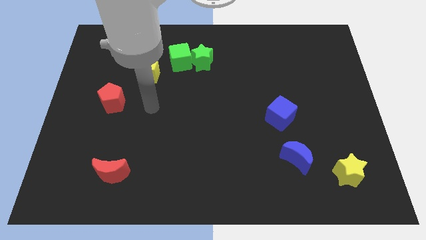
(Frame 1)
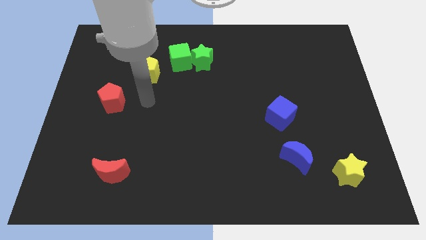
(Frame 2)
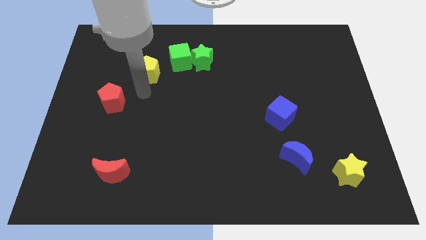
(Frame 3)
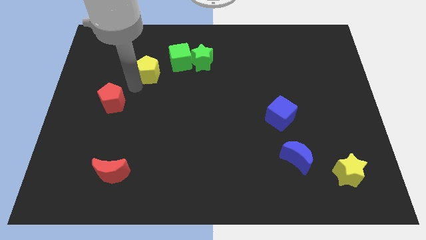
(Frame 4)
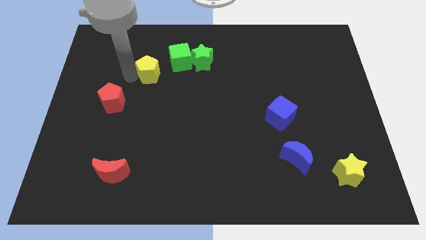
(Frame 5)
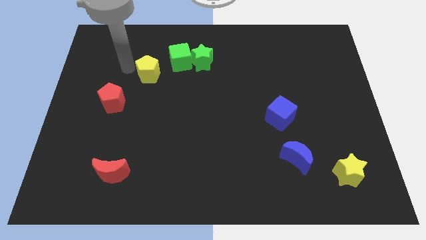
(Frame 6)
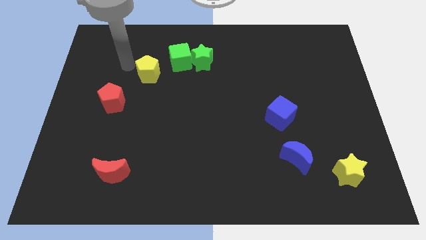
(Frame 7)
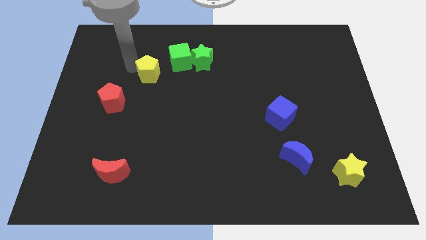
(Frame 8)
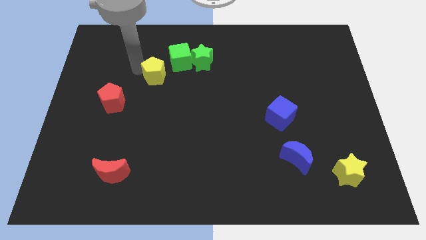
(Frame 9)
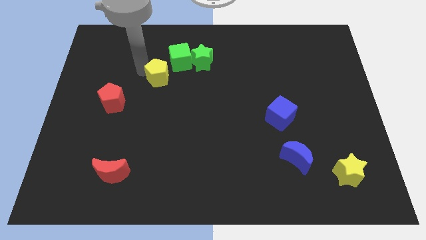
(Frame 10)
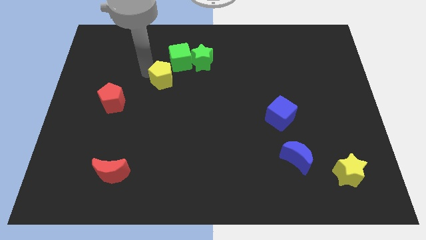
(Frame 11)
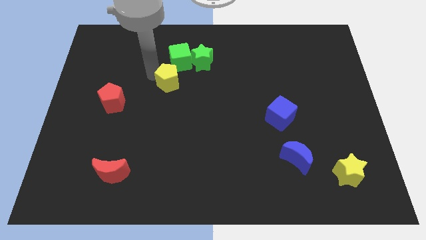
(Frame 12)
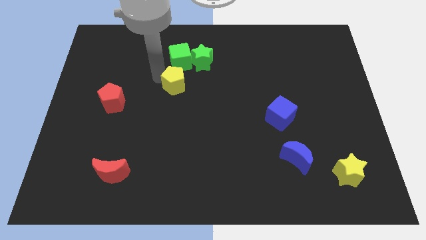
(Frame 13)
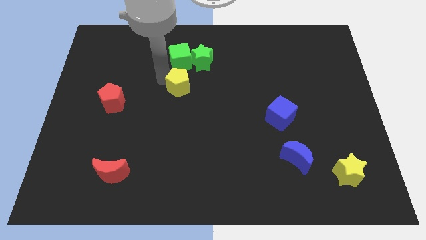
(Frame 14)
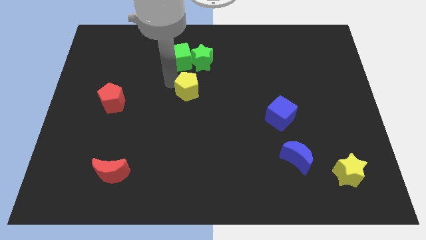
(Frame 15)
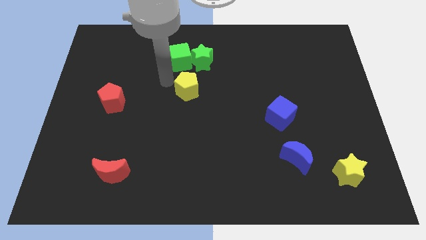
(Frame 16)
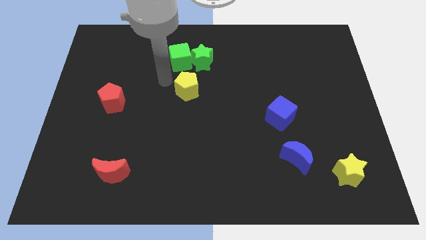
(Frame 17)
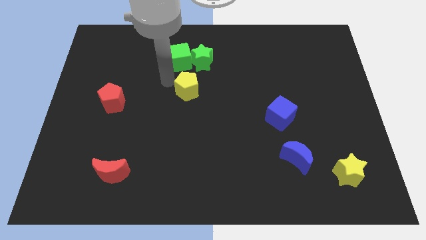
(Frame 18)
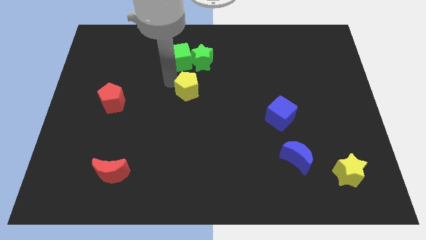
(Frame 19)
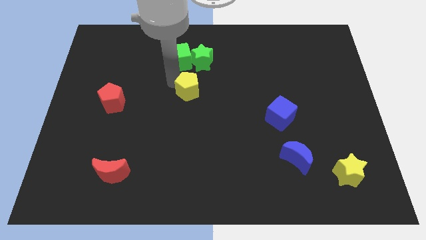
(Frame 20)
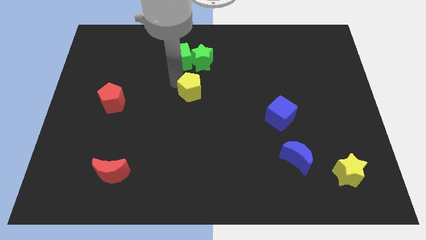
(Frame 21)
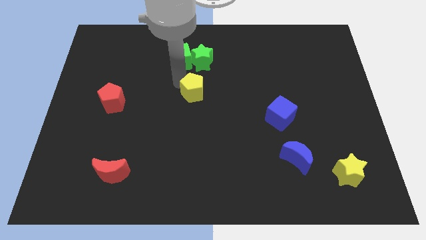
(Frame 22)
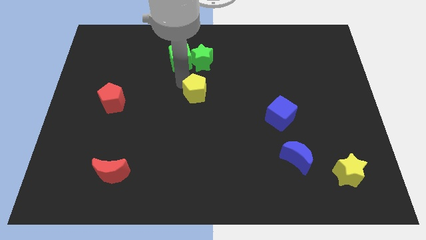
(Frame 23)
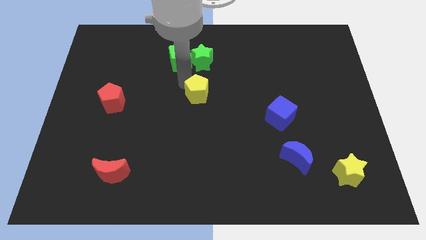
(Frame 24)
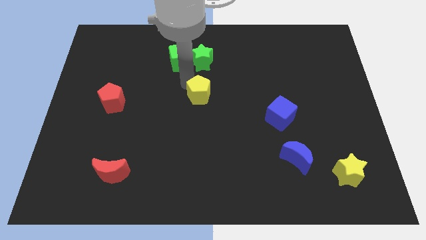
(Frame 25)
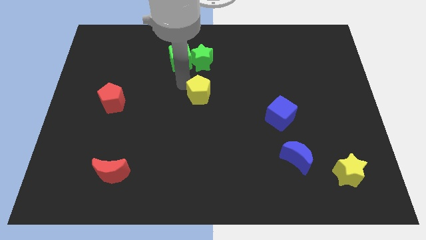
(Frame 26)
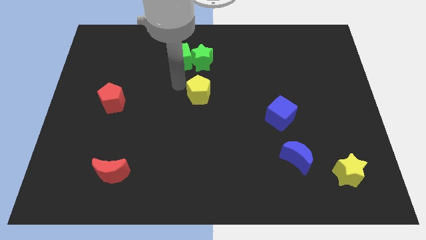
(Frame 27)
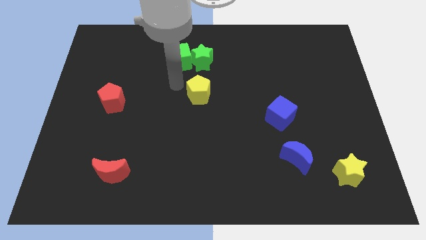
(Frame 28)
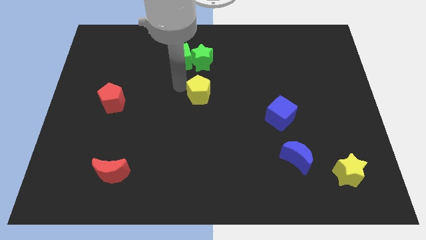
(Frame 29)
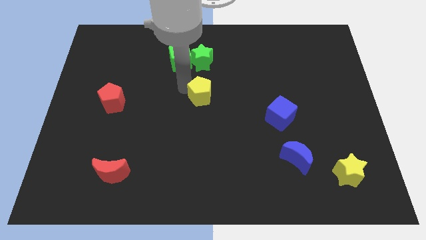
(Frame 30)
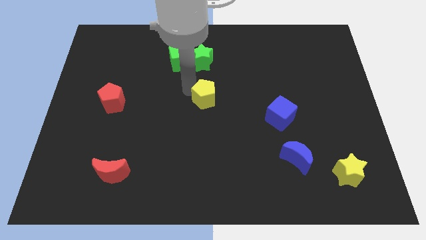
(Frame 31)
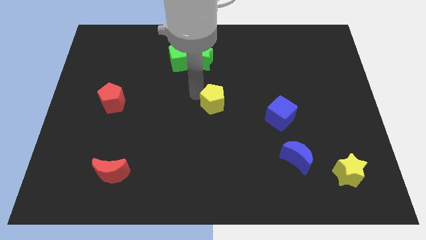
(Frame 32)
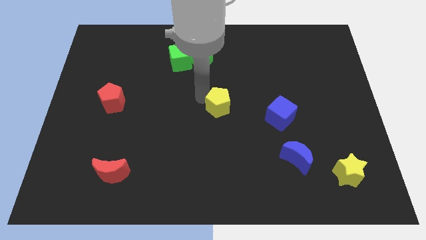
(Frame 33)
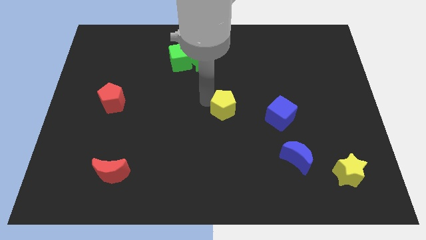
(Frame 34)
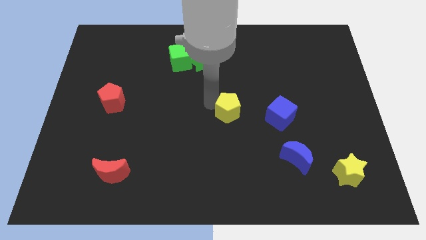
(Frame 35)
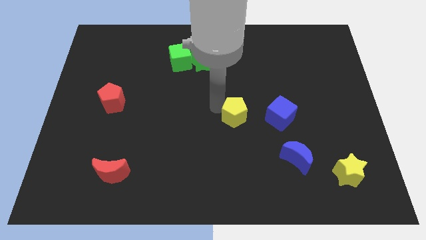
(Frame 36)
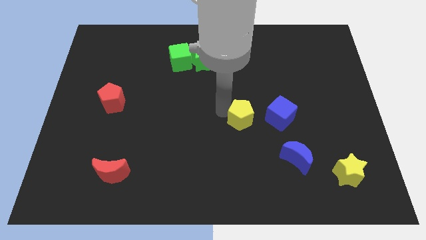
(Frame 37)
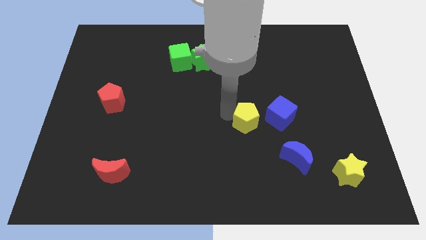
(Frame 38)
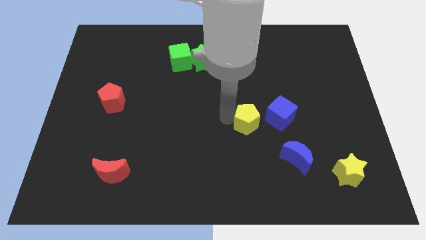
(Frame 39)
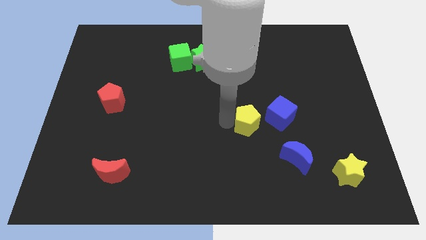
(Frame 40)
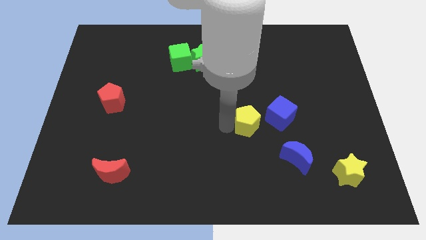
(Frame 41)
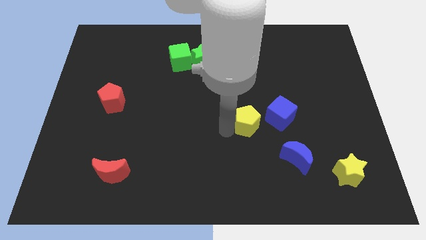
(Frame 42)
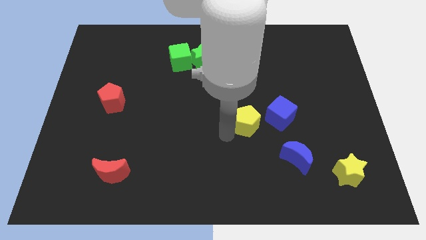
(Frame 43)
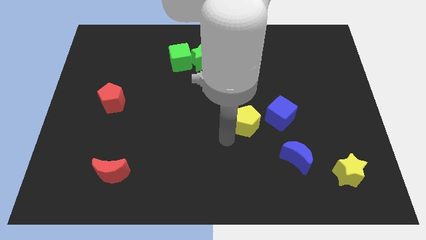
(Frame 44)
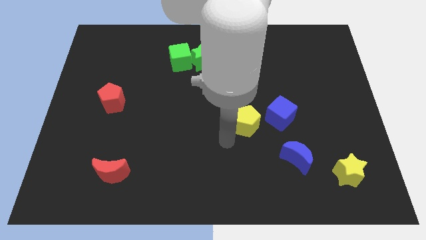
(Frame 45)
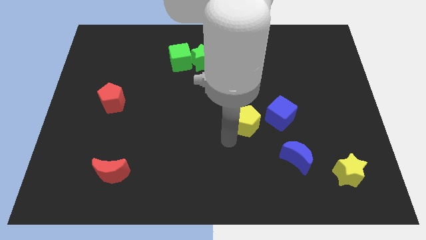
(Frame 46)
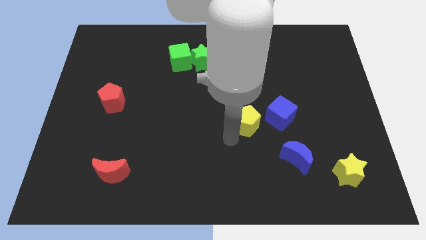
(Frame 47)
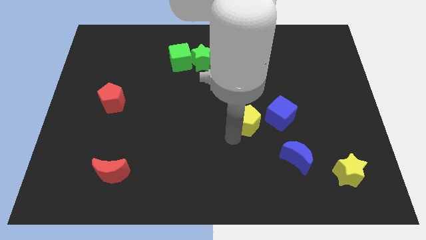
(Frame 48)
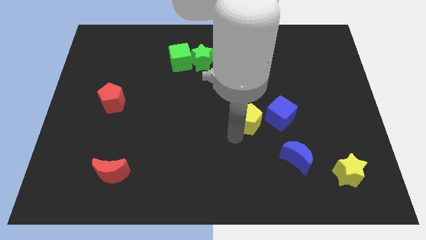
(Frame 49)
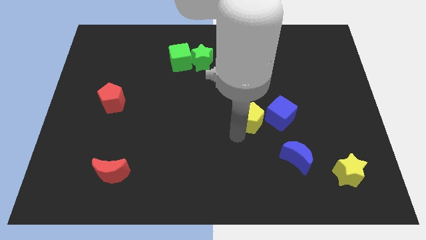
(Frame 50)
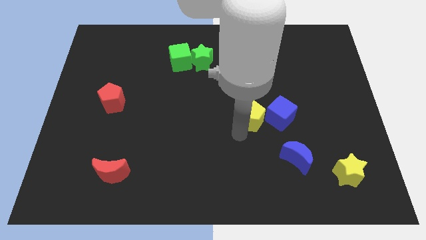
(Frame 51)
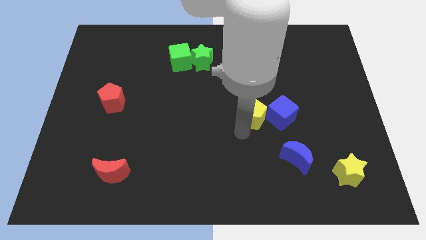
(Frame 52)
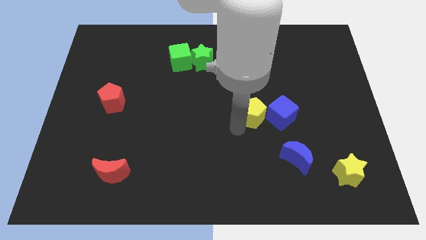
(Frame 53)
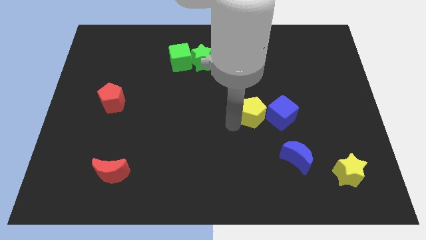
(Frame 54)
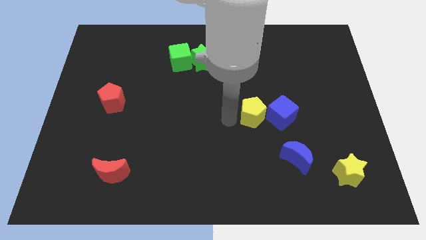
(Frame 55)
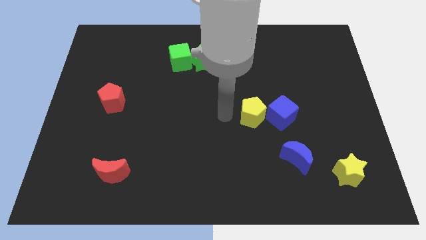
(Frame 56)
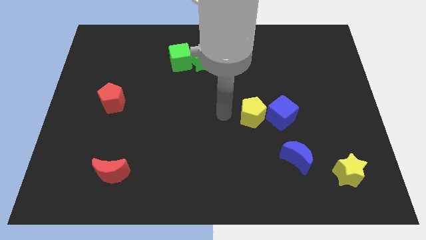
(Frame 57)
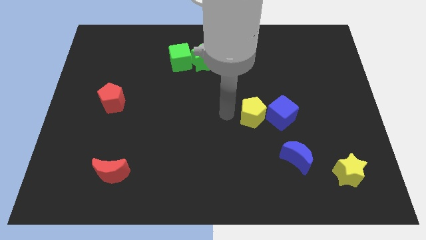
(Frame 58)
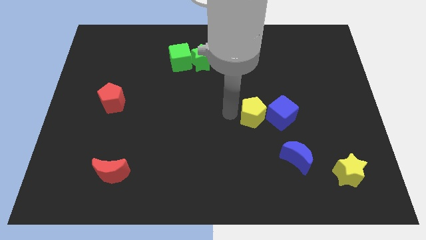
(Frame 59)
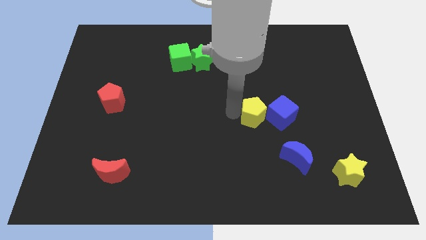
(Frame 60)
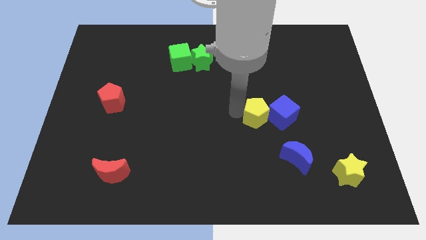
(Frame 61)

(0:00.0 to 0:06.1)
slide the yellow pentagon next to the blue cube

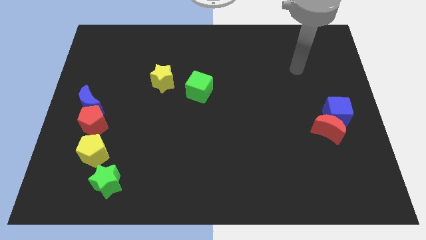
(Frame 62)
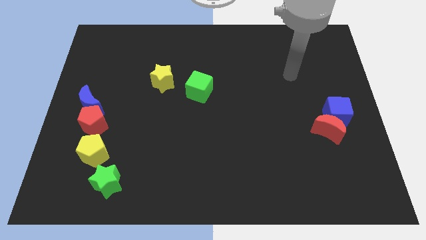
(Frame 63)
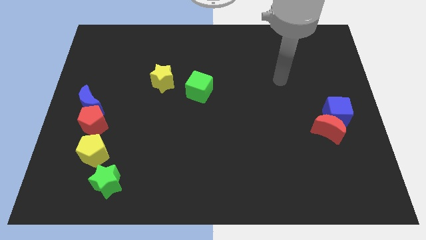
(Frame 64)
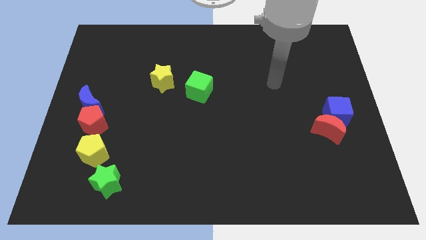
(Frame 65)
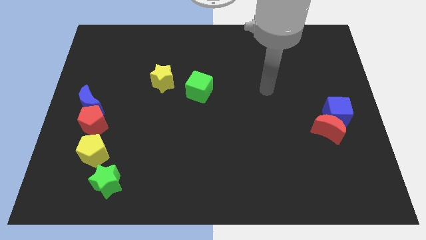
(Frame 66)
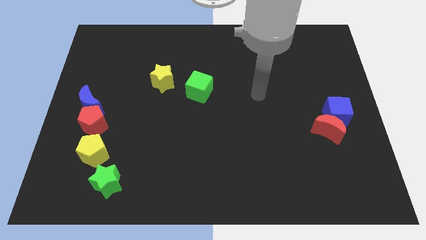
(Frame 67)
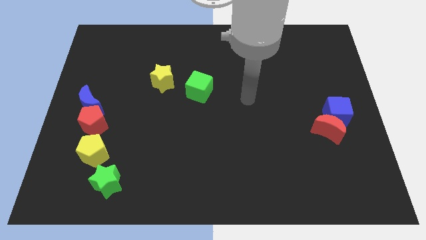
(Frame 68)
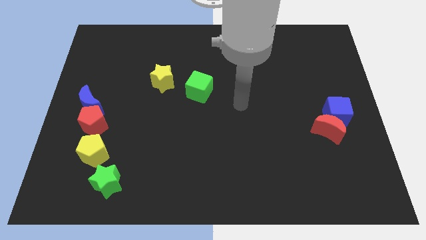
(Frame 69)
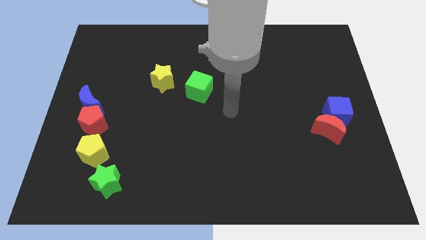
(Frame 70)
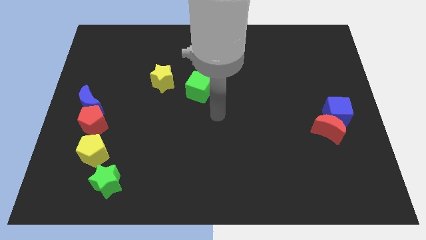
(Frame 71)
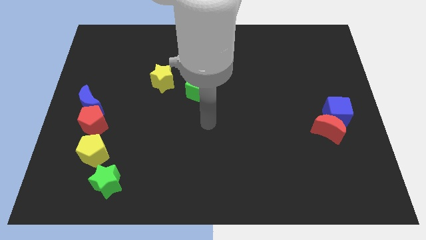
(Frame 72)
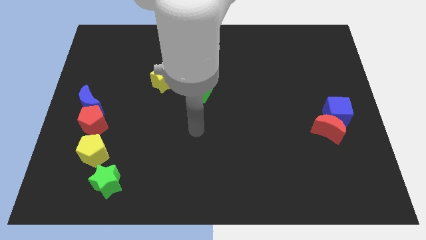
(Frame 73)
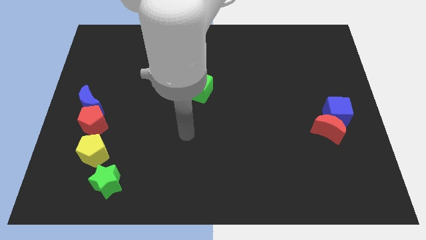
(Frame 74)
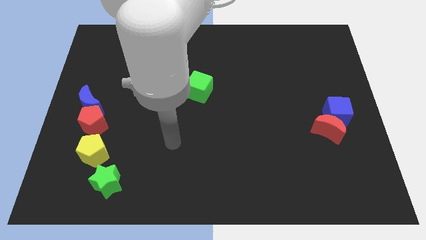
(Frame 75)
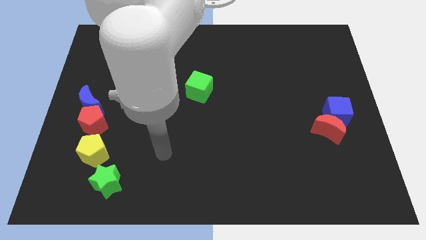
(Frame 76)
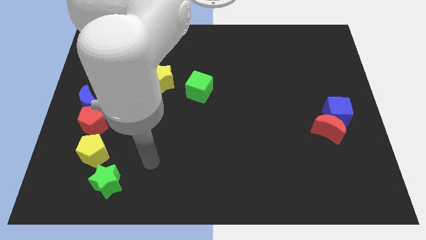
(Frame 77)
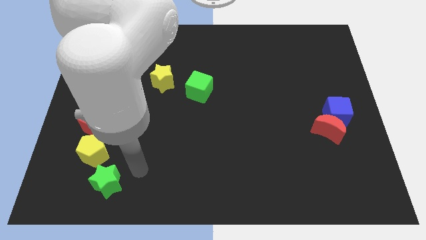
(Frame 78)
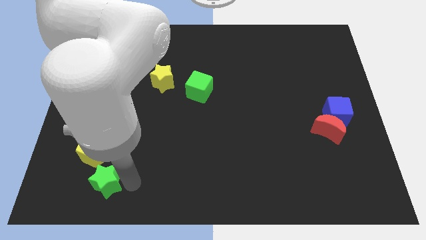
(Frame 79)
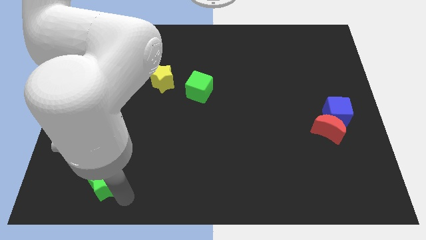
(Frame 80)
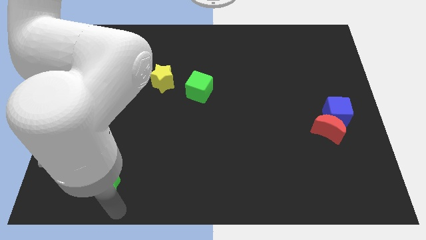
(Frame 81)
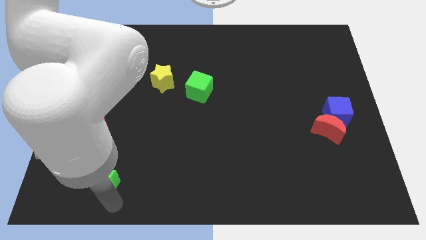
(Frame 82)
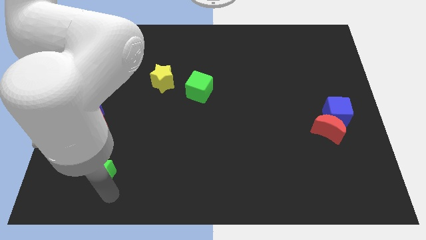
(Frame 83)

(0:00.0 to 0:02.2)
slide the green star towards the yellow pentagon

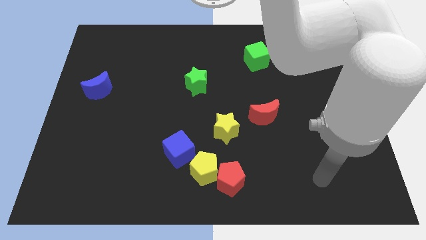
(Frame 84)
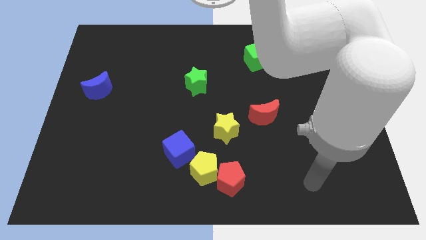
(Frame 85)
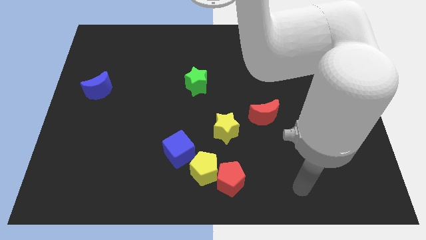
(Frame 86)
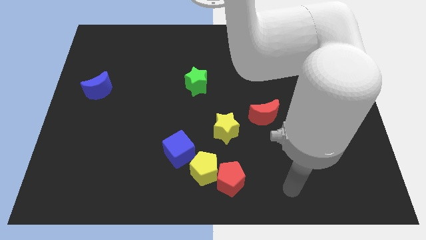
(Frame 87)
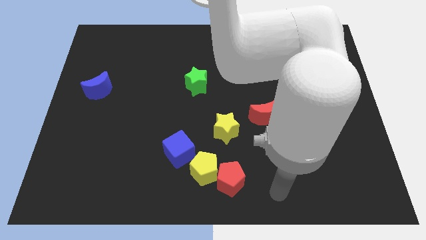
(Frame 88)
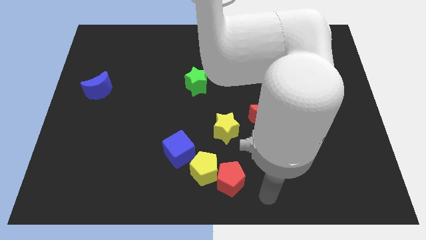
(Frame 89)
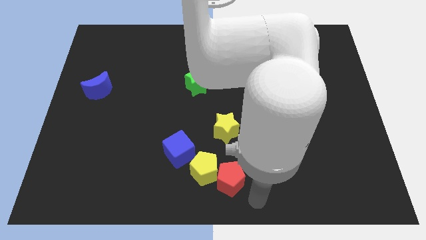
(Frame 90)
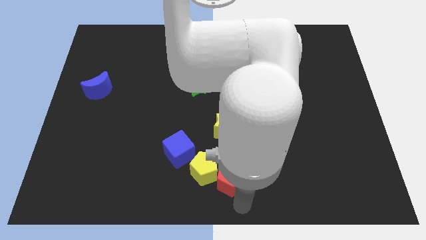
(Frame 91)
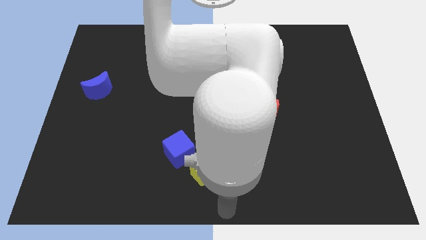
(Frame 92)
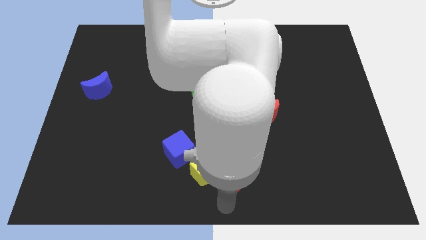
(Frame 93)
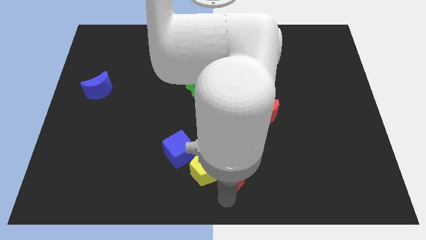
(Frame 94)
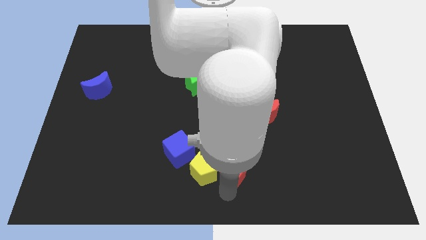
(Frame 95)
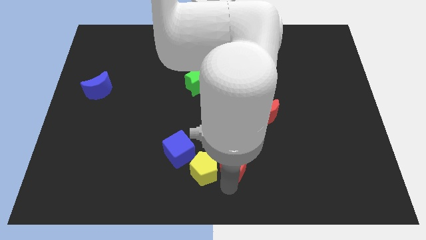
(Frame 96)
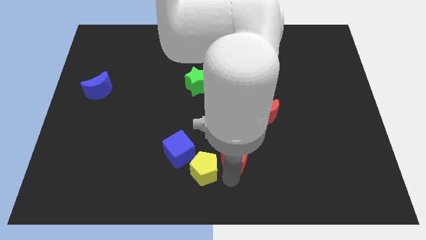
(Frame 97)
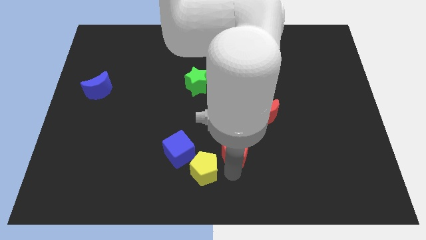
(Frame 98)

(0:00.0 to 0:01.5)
slide the red pentagon close to the yellow star
